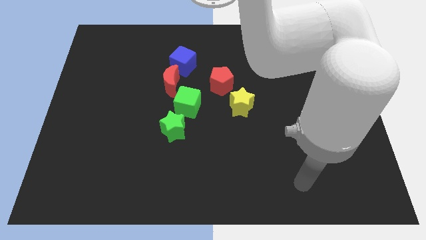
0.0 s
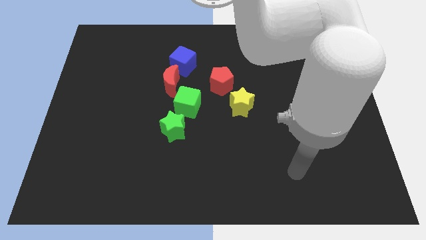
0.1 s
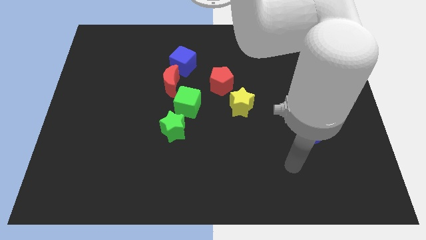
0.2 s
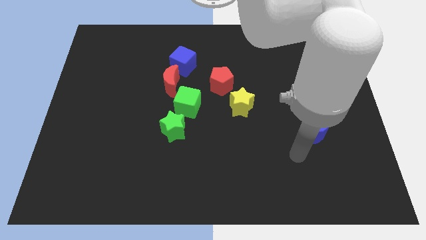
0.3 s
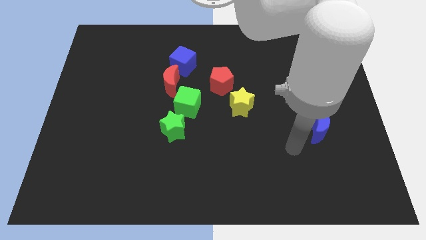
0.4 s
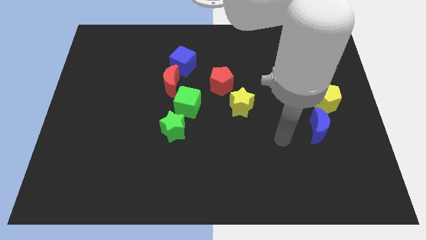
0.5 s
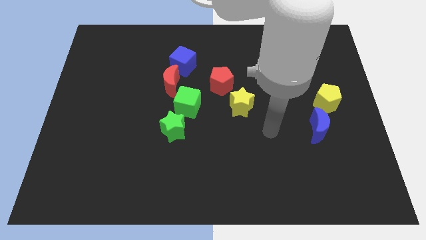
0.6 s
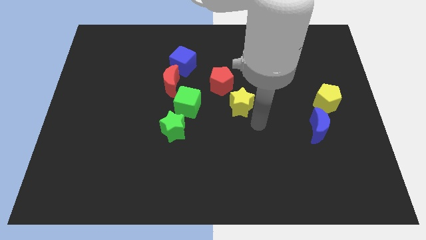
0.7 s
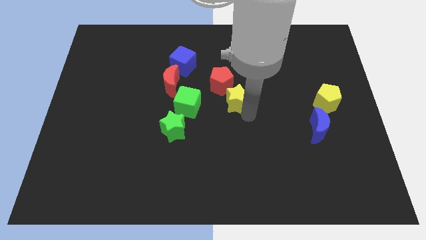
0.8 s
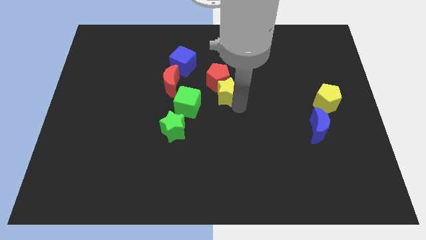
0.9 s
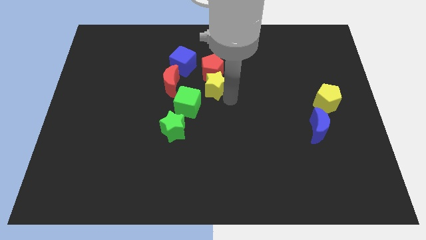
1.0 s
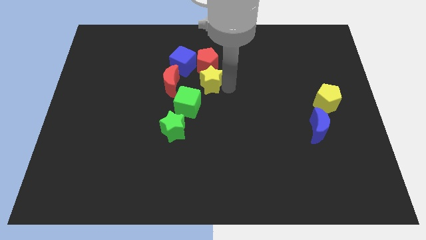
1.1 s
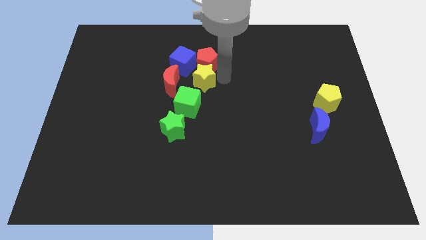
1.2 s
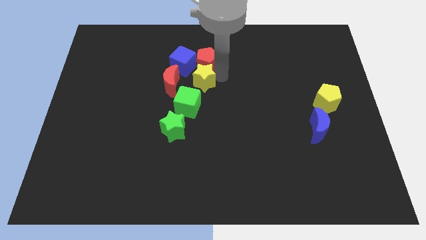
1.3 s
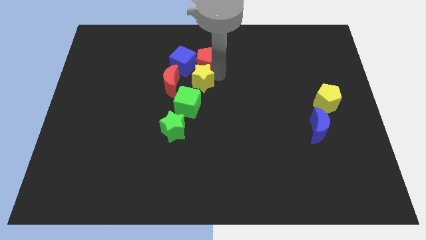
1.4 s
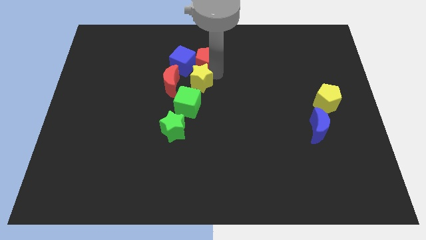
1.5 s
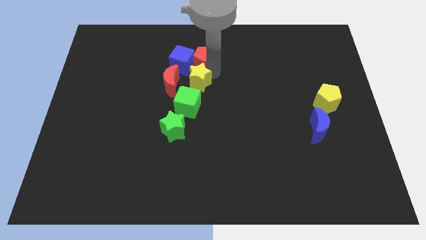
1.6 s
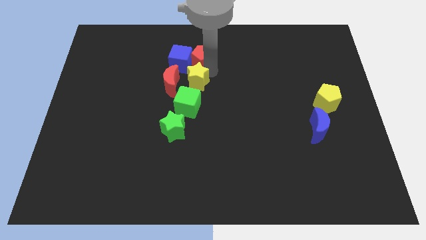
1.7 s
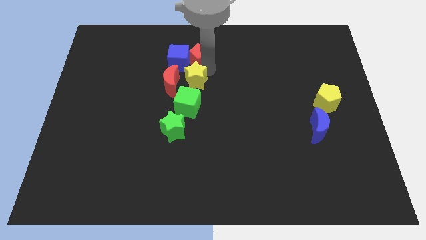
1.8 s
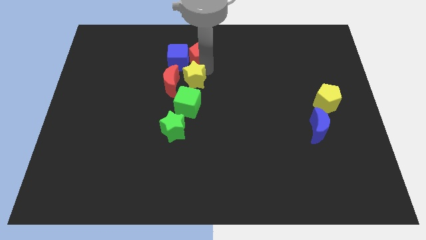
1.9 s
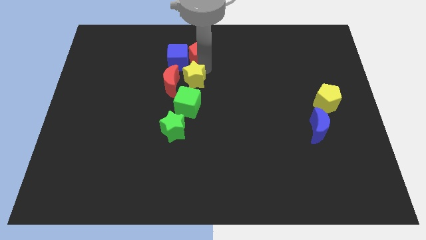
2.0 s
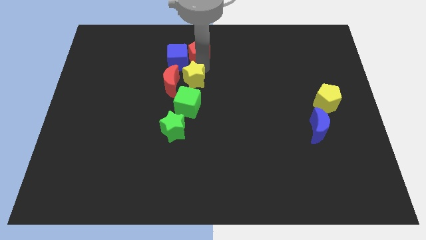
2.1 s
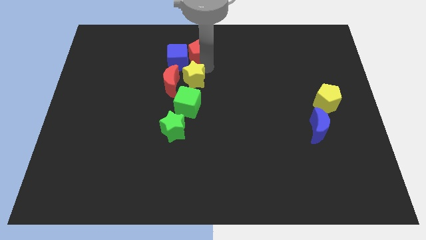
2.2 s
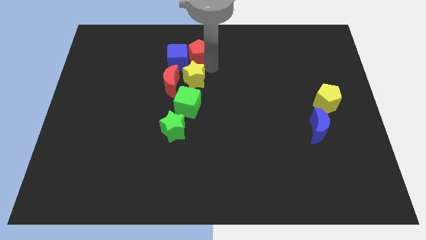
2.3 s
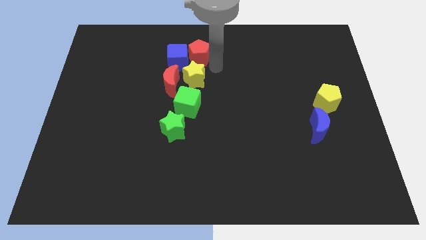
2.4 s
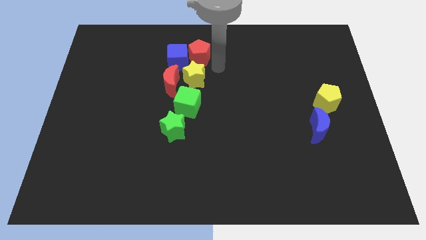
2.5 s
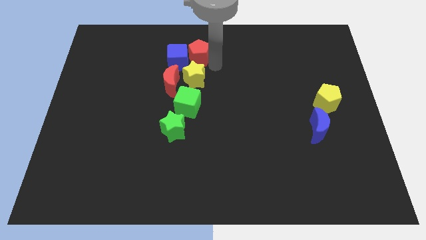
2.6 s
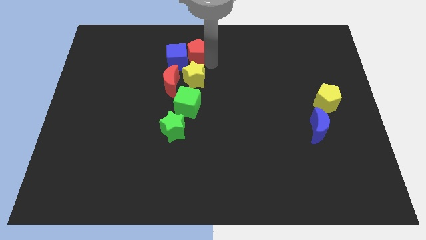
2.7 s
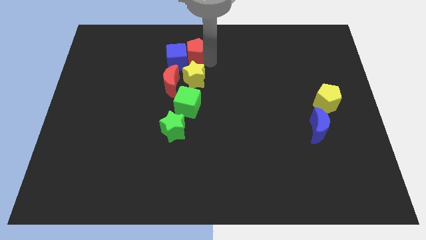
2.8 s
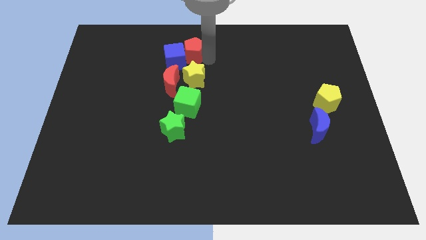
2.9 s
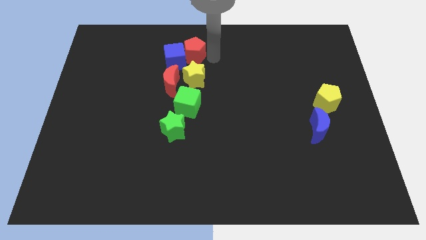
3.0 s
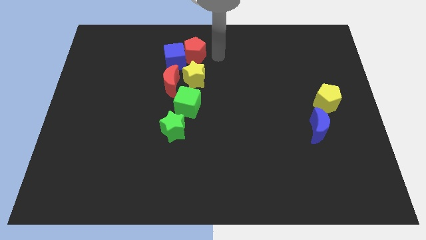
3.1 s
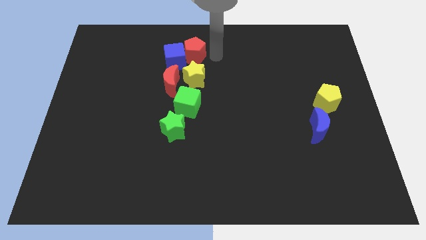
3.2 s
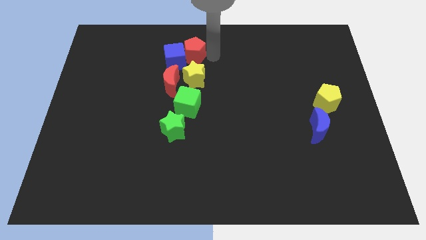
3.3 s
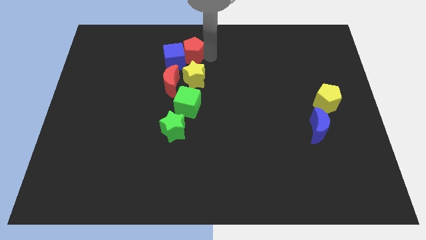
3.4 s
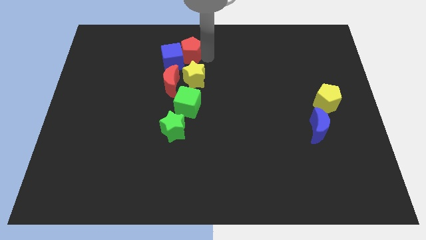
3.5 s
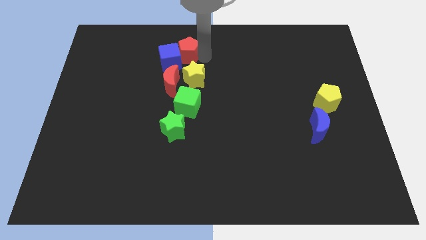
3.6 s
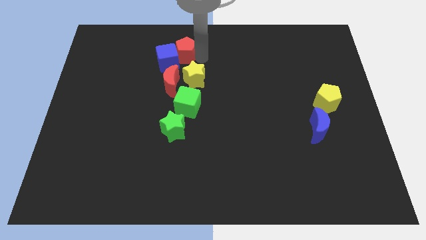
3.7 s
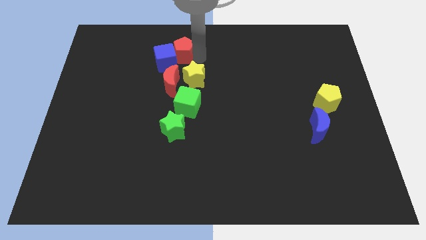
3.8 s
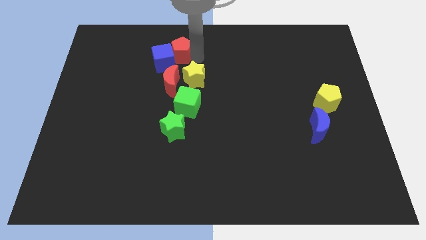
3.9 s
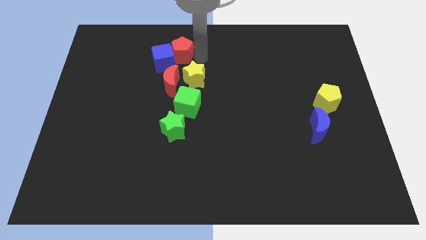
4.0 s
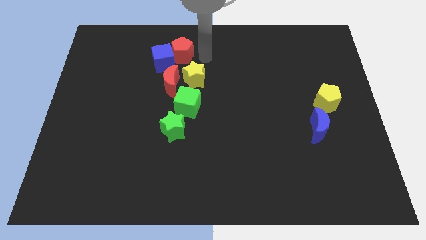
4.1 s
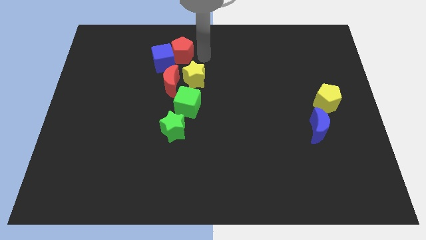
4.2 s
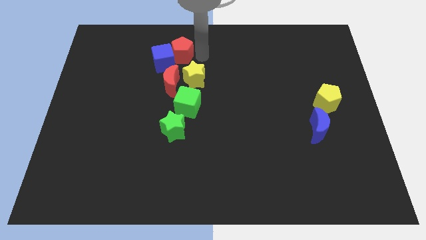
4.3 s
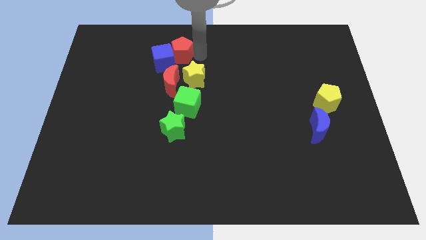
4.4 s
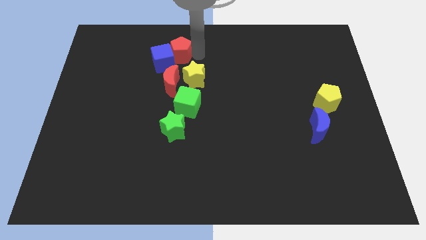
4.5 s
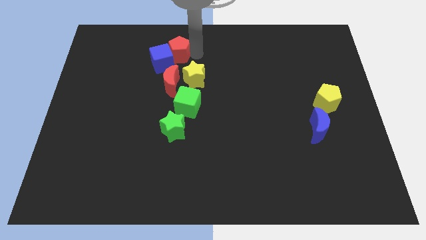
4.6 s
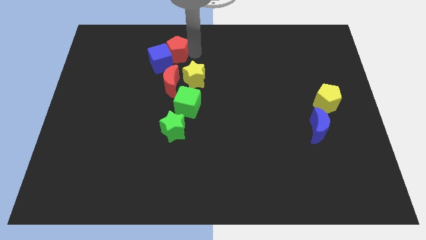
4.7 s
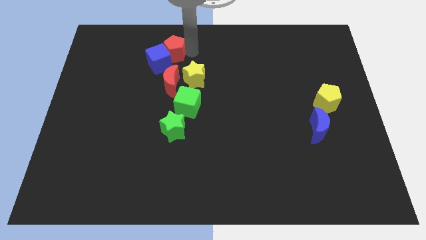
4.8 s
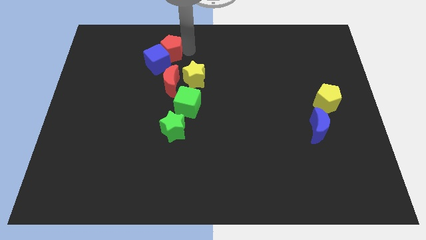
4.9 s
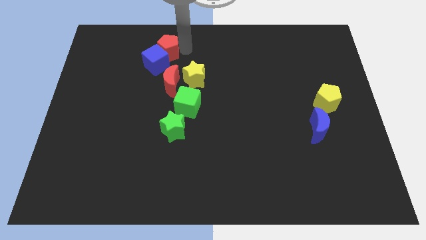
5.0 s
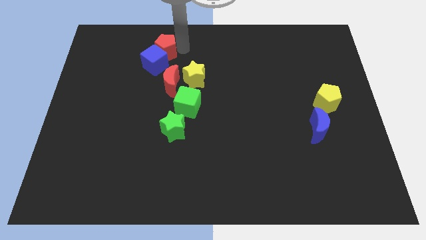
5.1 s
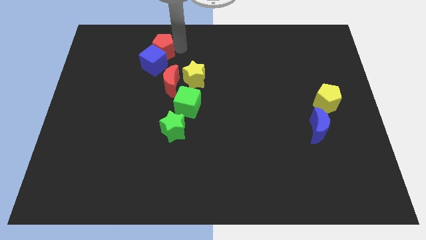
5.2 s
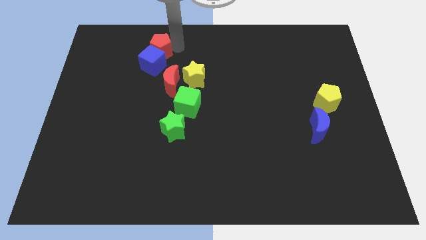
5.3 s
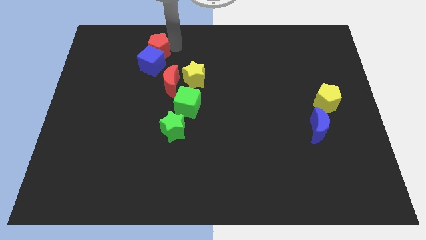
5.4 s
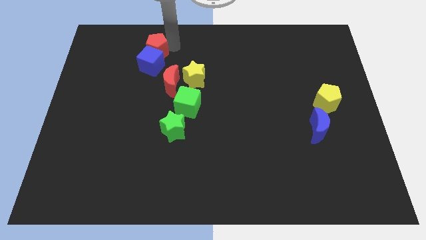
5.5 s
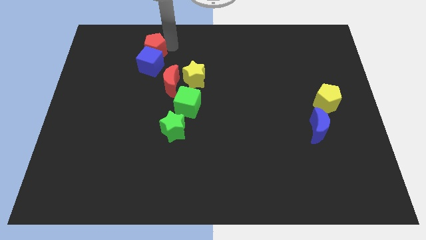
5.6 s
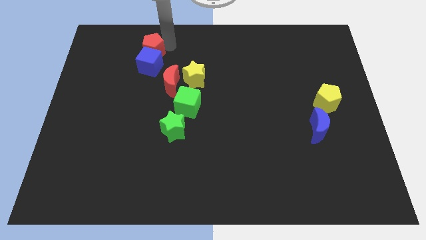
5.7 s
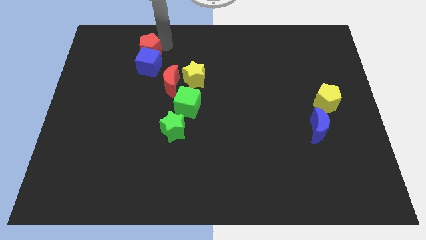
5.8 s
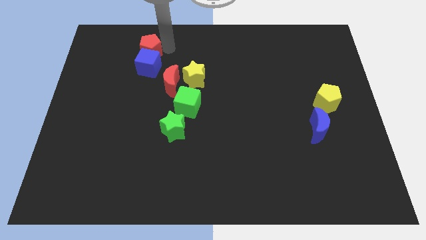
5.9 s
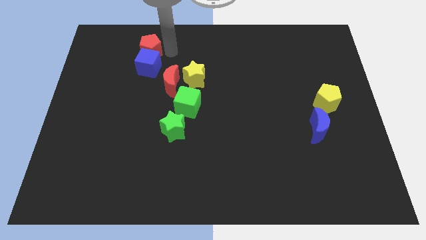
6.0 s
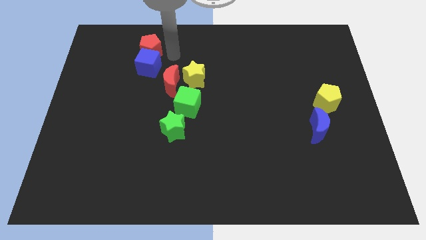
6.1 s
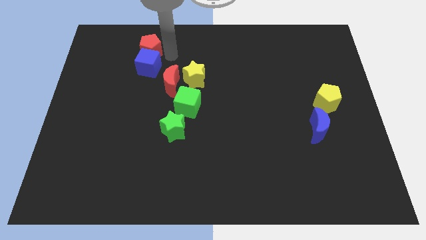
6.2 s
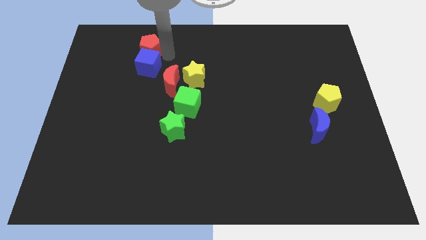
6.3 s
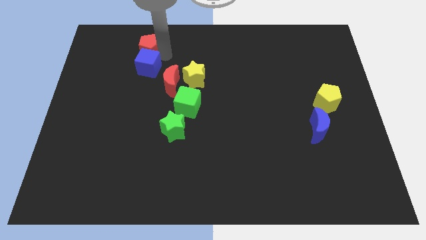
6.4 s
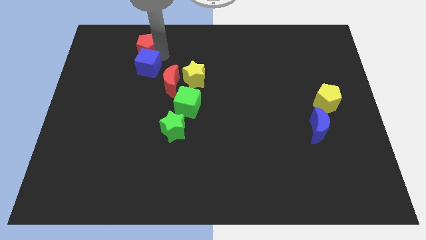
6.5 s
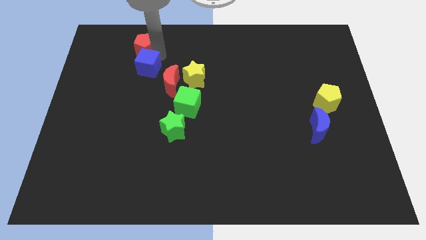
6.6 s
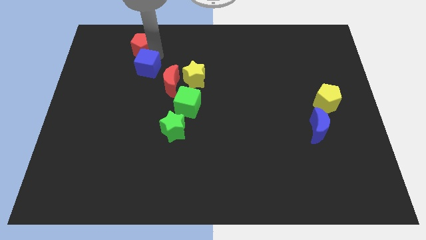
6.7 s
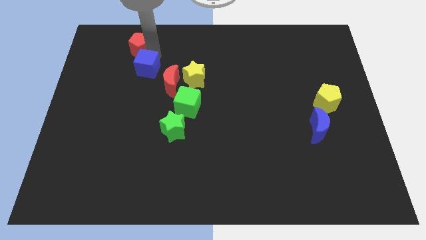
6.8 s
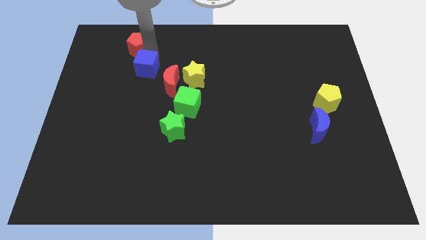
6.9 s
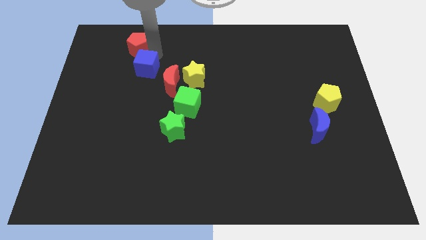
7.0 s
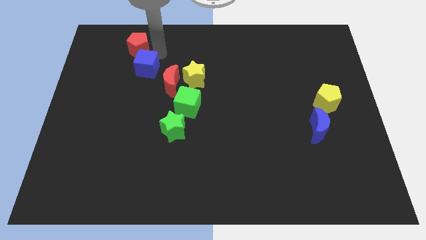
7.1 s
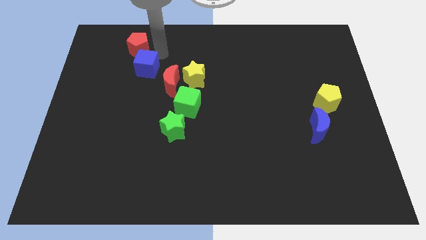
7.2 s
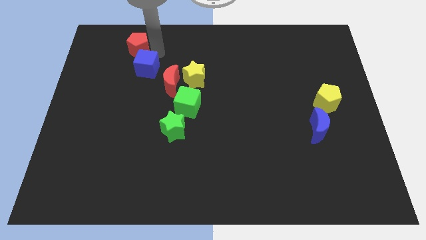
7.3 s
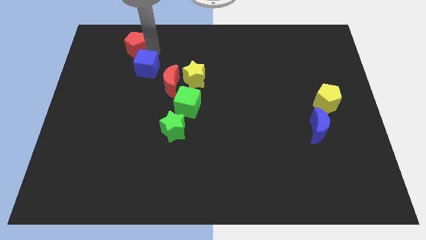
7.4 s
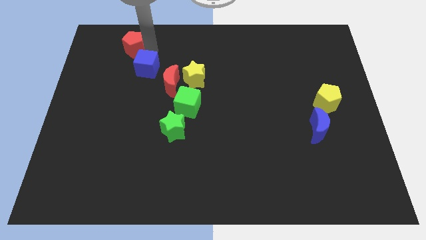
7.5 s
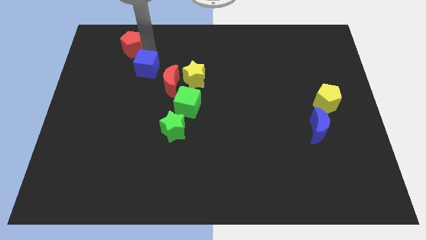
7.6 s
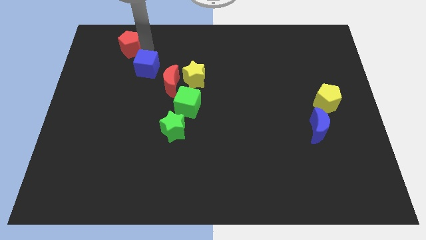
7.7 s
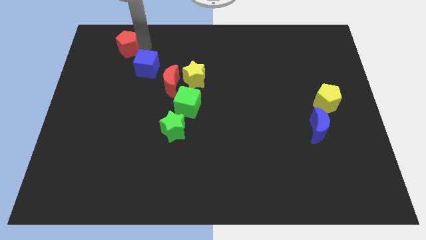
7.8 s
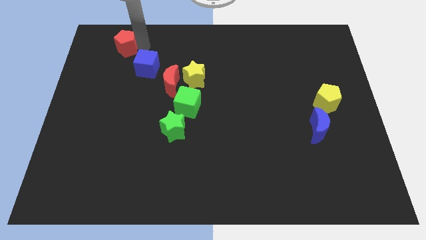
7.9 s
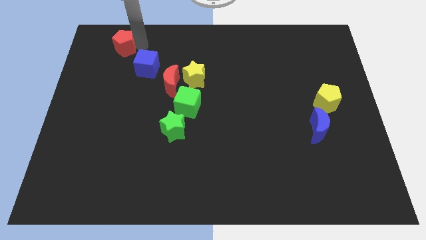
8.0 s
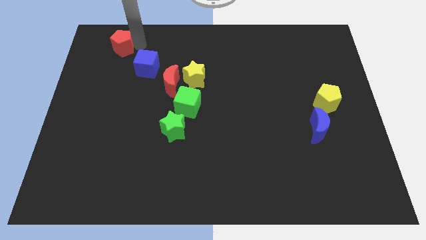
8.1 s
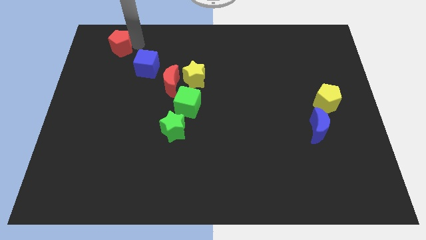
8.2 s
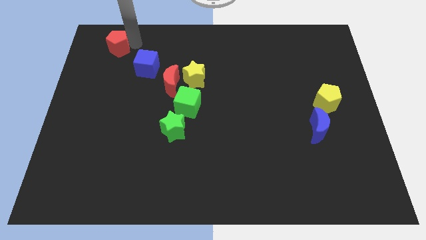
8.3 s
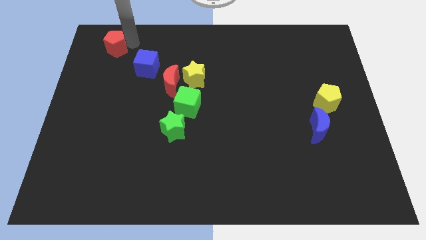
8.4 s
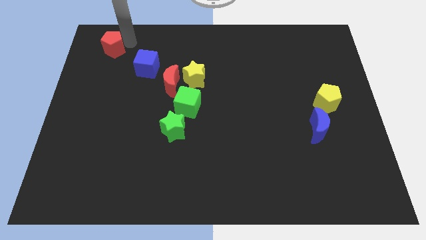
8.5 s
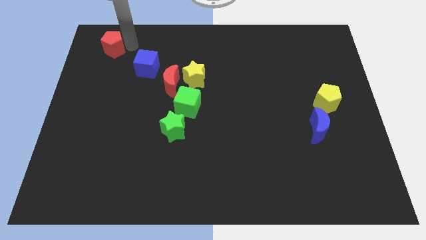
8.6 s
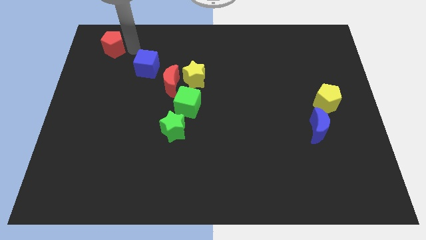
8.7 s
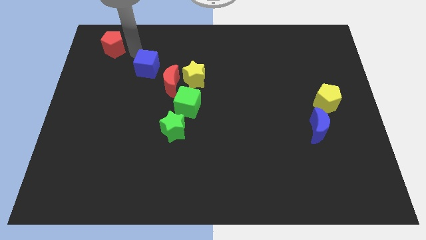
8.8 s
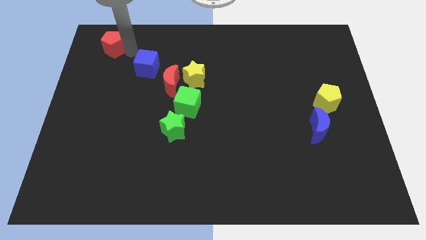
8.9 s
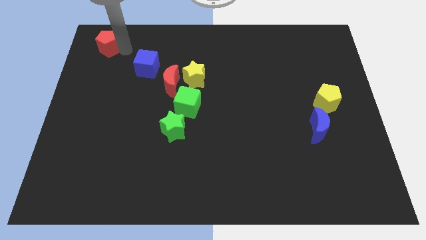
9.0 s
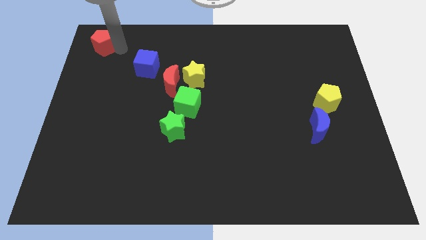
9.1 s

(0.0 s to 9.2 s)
put the red pentagon to the top left corner
